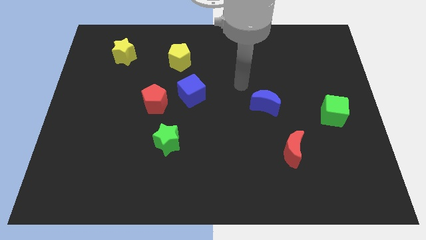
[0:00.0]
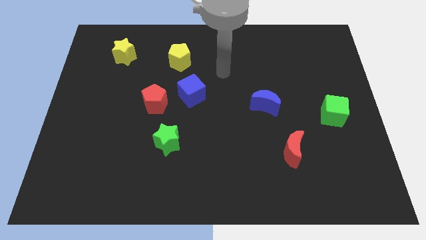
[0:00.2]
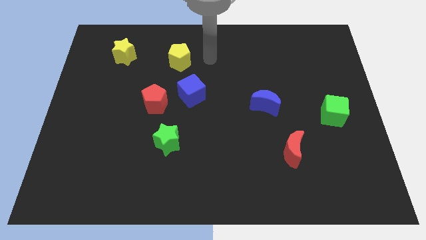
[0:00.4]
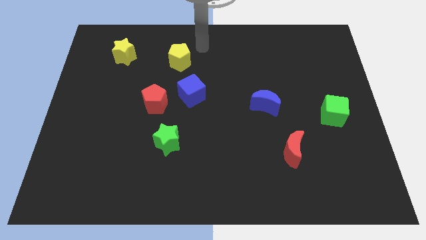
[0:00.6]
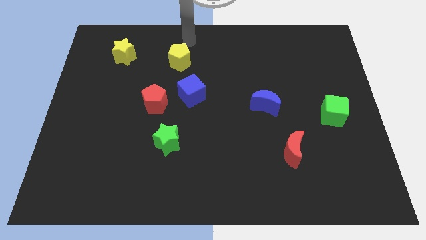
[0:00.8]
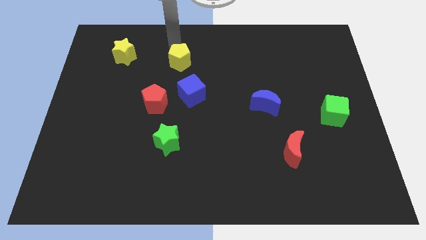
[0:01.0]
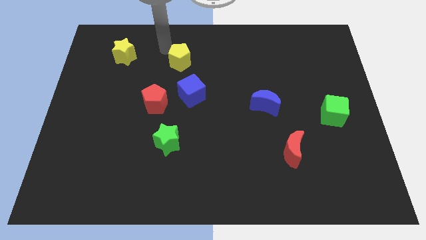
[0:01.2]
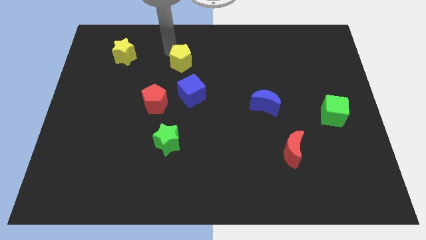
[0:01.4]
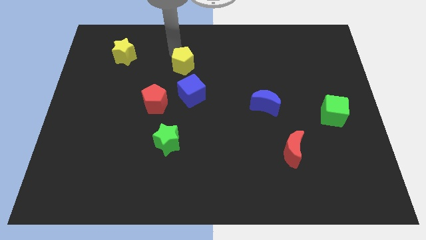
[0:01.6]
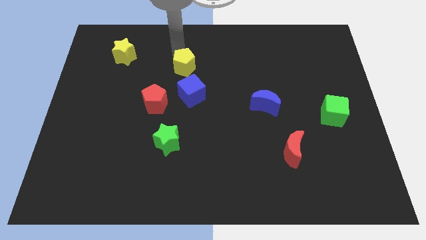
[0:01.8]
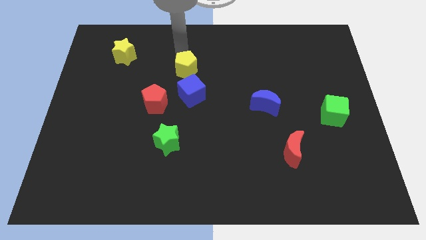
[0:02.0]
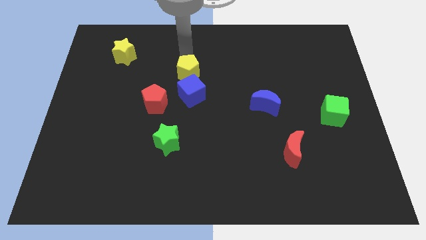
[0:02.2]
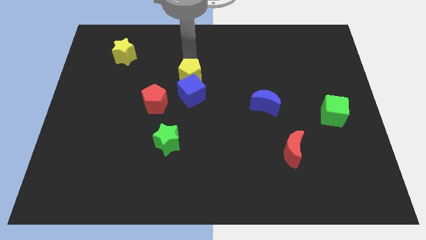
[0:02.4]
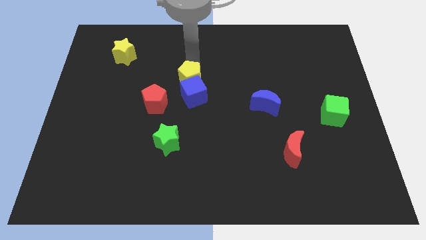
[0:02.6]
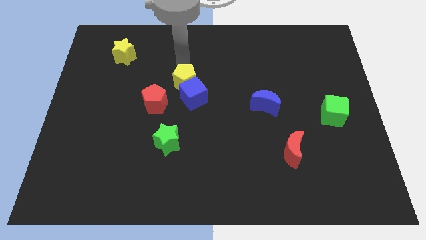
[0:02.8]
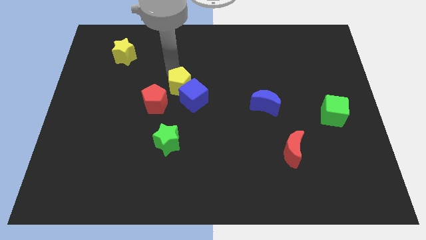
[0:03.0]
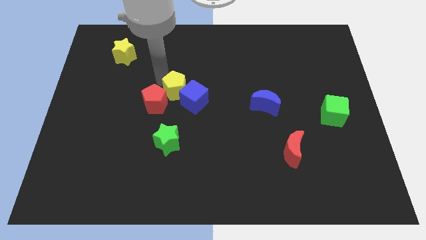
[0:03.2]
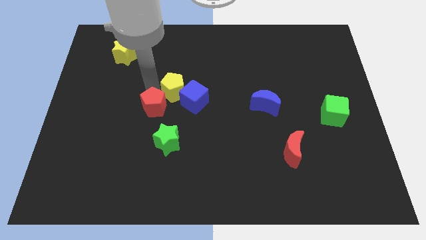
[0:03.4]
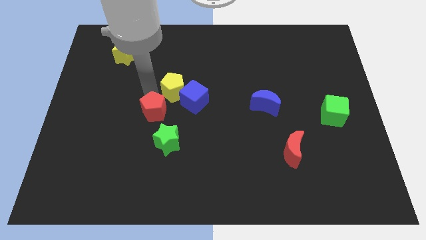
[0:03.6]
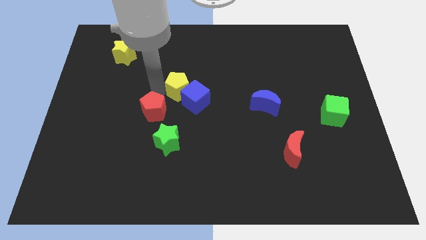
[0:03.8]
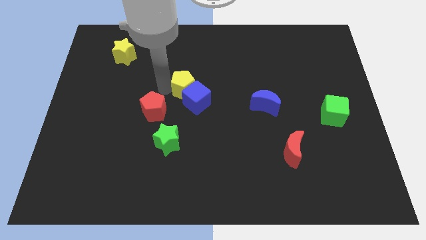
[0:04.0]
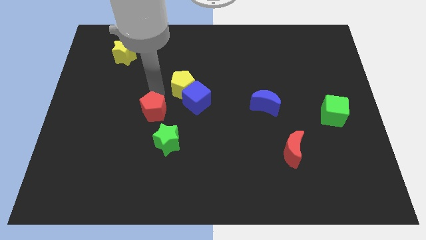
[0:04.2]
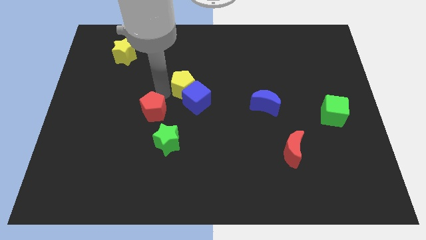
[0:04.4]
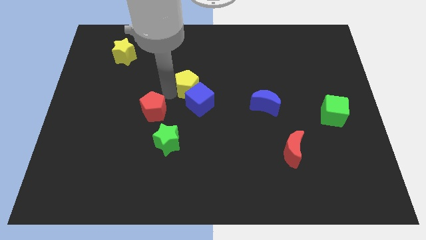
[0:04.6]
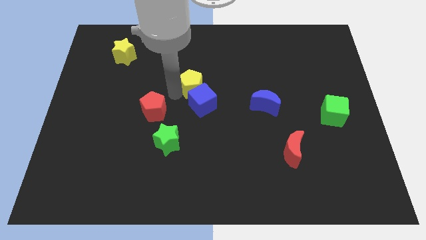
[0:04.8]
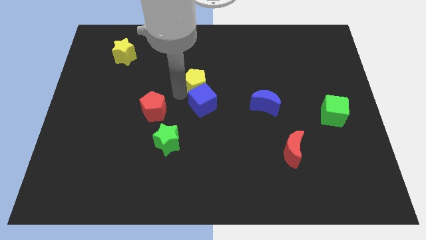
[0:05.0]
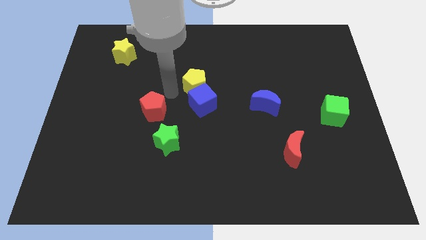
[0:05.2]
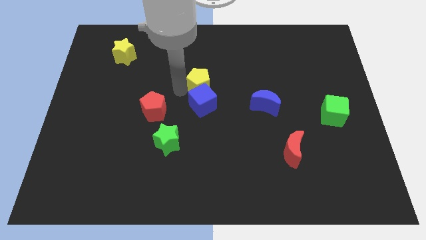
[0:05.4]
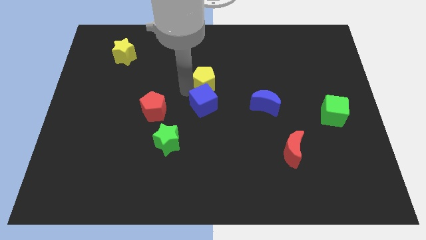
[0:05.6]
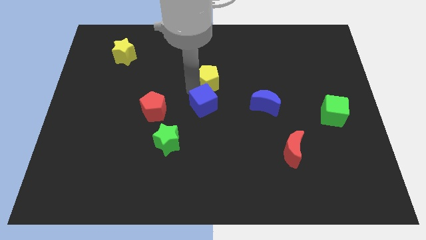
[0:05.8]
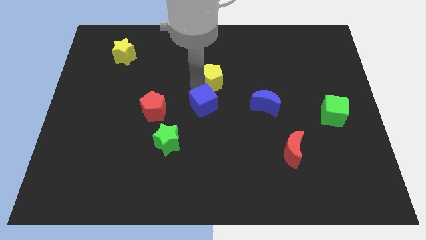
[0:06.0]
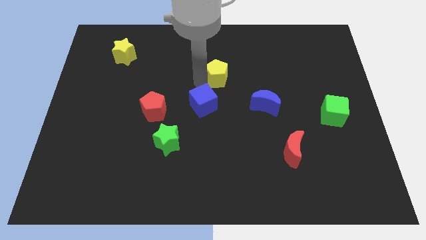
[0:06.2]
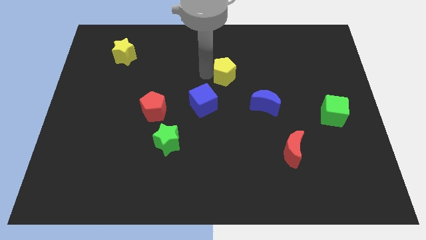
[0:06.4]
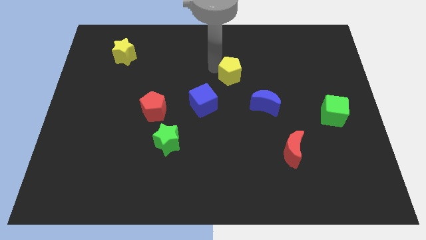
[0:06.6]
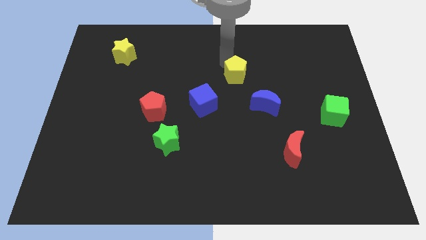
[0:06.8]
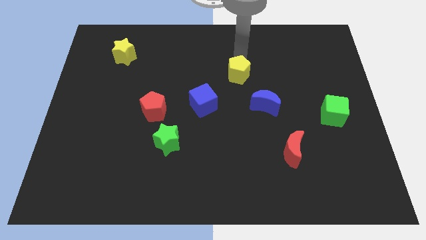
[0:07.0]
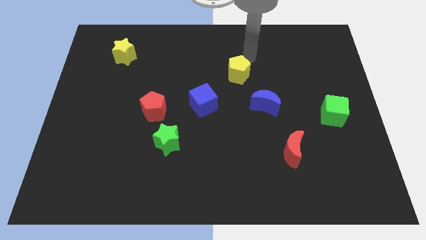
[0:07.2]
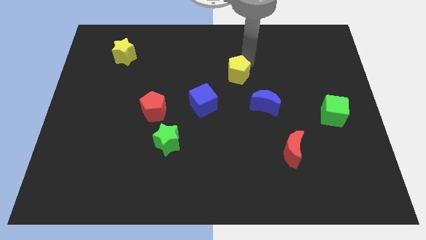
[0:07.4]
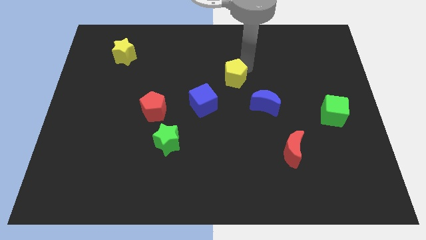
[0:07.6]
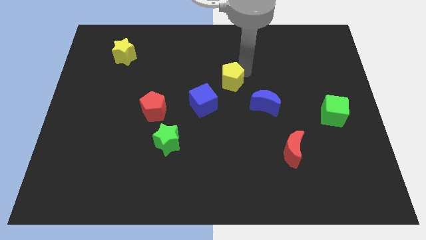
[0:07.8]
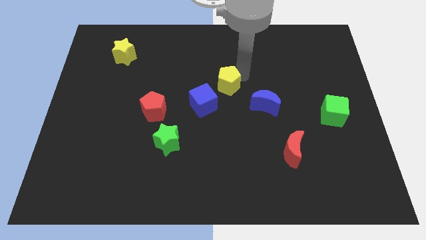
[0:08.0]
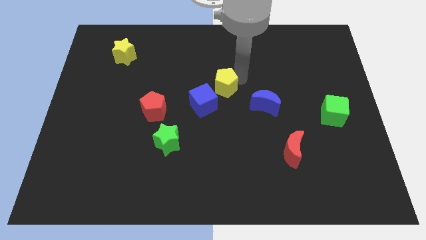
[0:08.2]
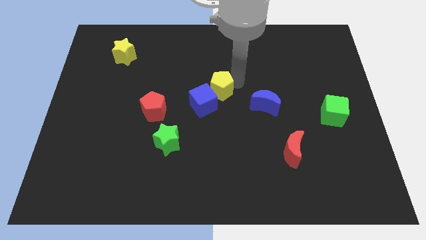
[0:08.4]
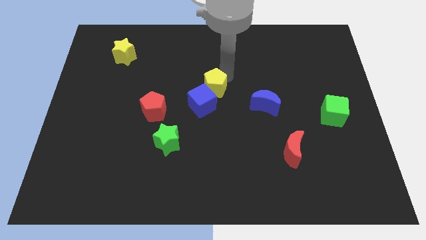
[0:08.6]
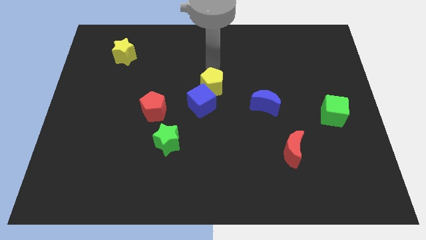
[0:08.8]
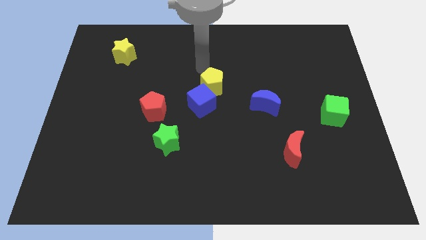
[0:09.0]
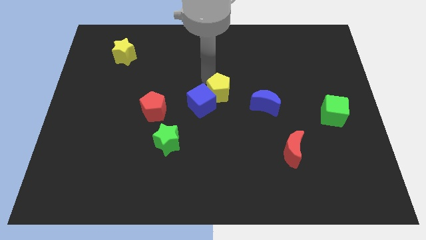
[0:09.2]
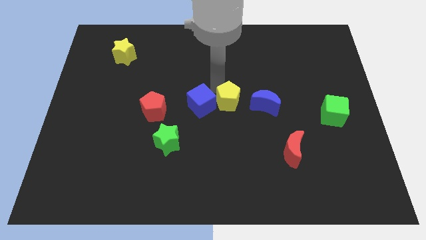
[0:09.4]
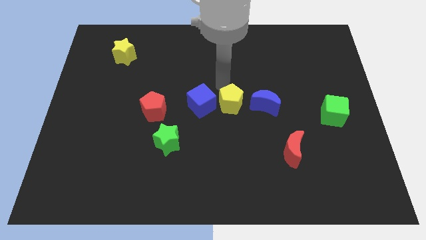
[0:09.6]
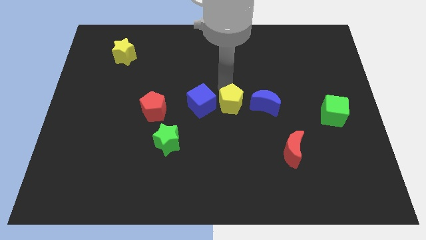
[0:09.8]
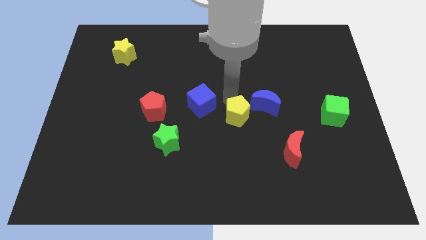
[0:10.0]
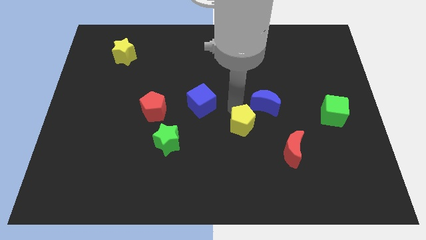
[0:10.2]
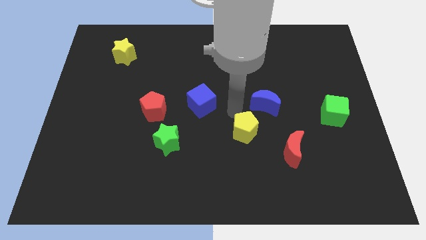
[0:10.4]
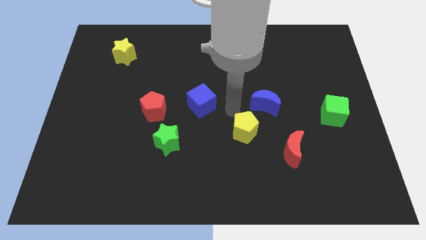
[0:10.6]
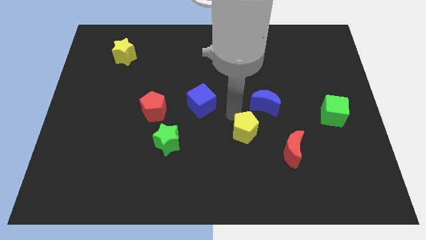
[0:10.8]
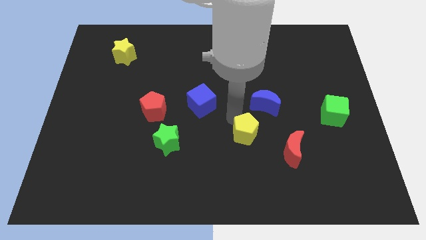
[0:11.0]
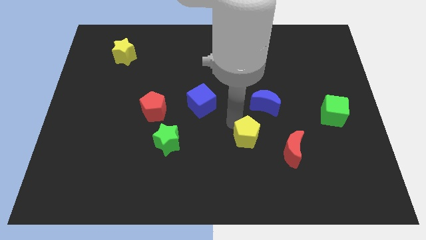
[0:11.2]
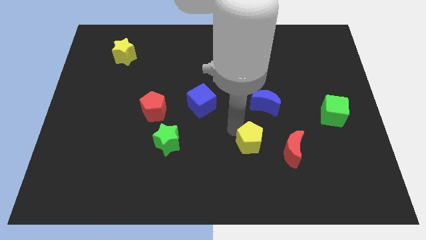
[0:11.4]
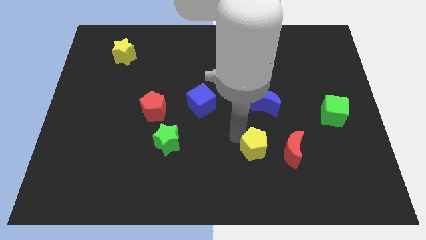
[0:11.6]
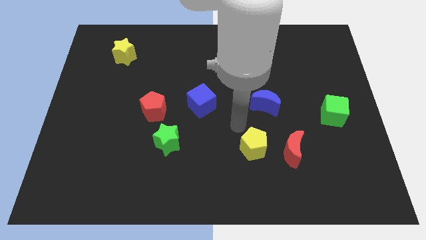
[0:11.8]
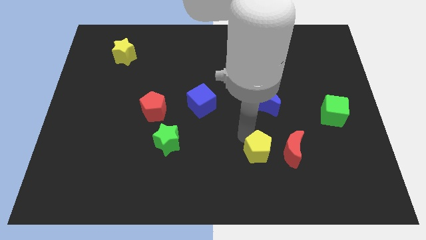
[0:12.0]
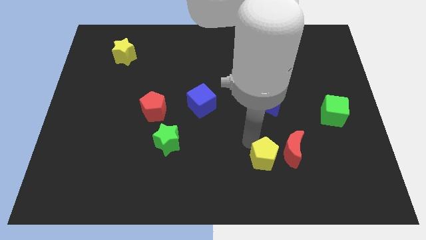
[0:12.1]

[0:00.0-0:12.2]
push the yellow pentagon diagonally down and to the left of the red moon

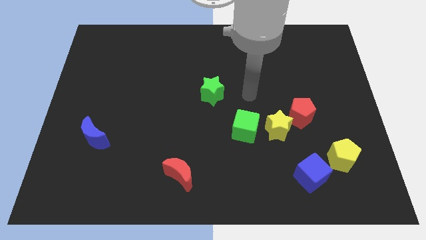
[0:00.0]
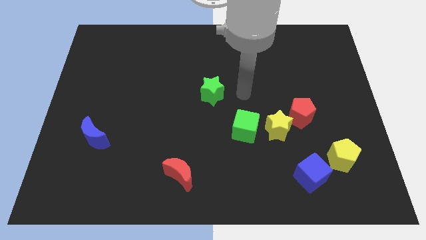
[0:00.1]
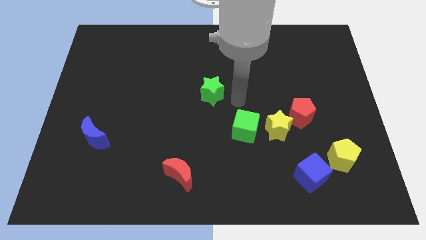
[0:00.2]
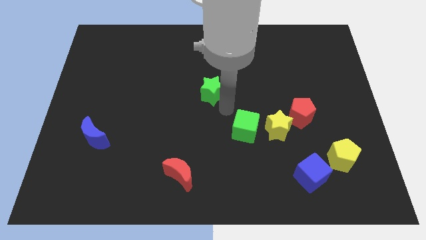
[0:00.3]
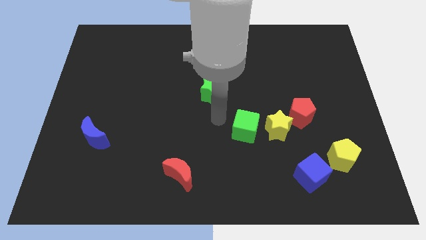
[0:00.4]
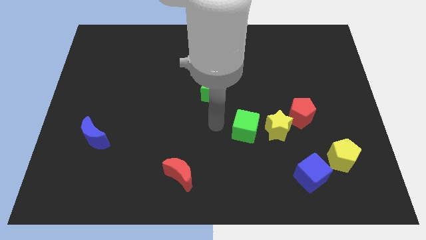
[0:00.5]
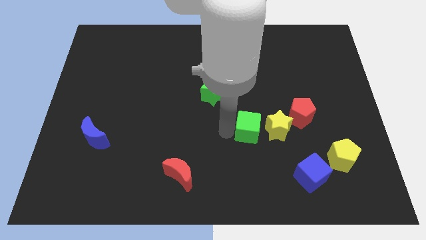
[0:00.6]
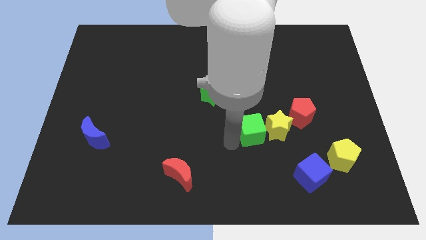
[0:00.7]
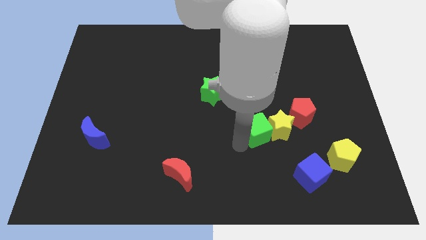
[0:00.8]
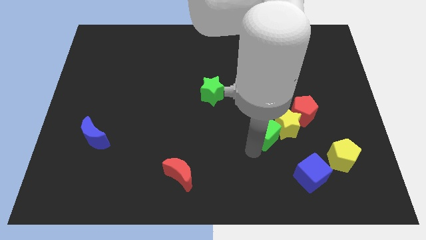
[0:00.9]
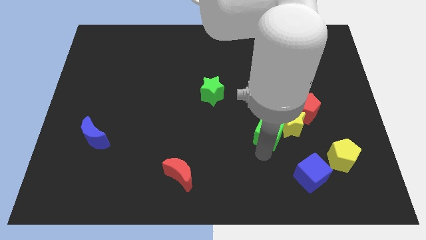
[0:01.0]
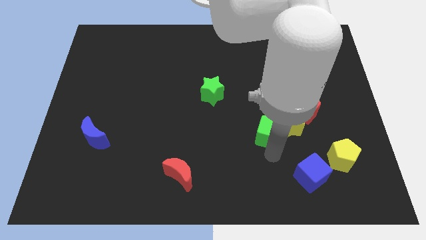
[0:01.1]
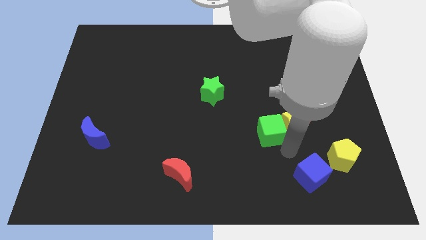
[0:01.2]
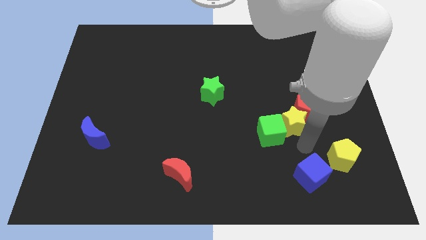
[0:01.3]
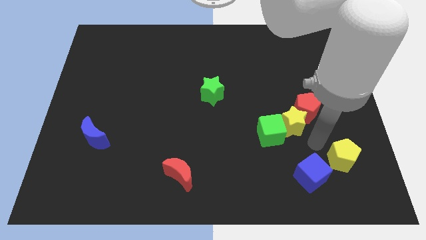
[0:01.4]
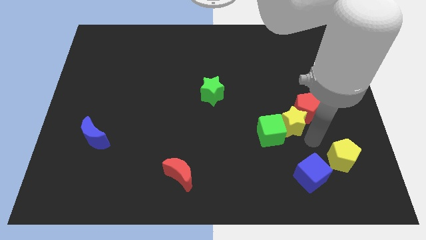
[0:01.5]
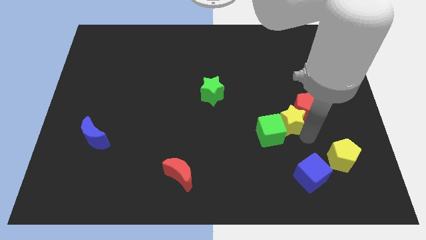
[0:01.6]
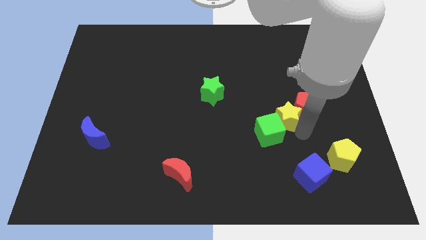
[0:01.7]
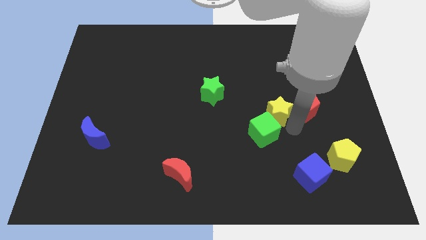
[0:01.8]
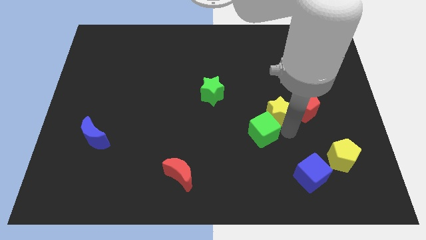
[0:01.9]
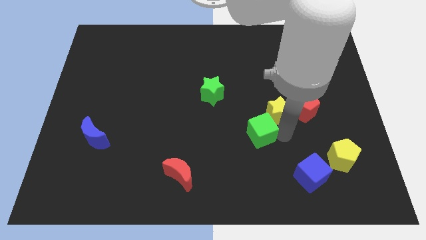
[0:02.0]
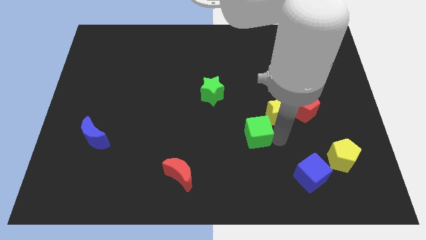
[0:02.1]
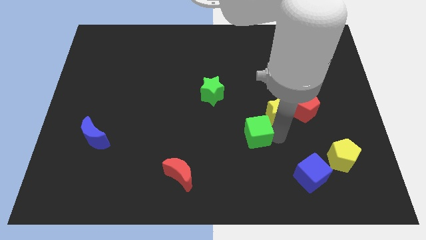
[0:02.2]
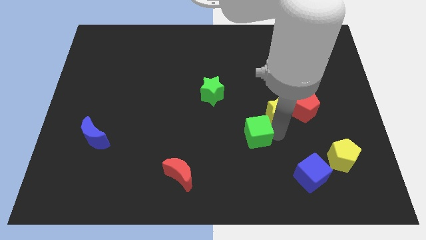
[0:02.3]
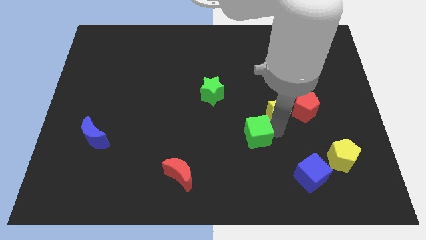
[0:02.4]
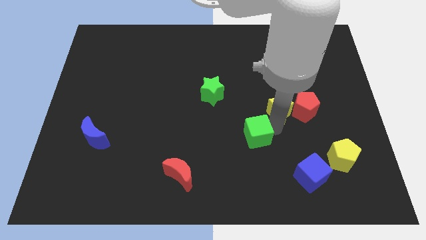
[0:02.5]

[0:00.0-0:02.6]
push the yellow star to the top left of the red pentagon
